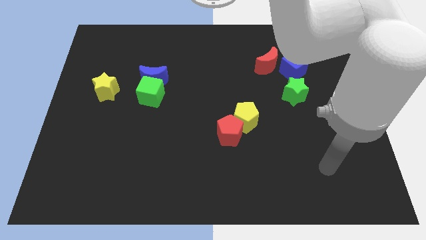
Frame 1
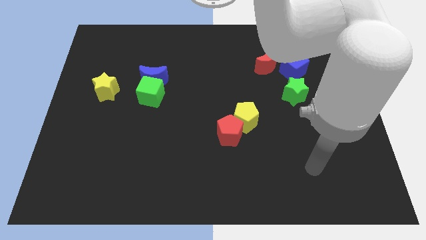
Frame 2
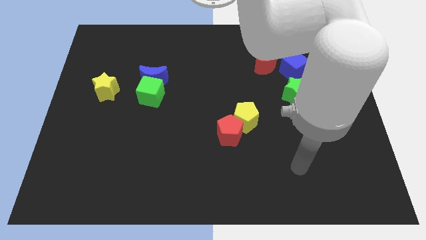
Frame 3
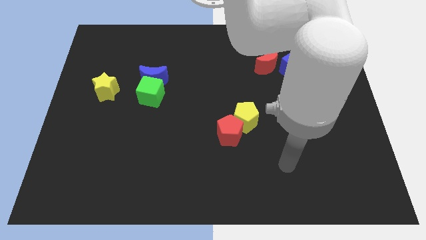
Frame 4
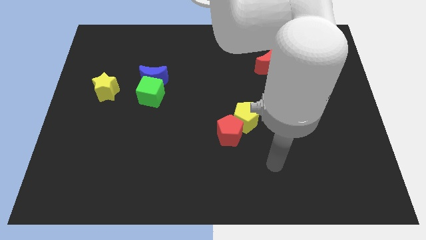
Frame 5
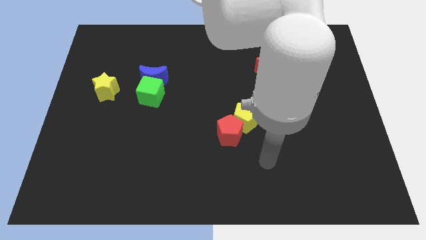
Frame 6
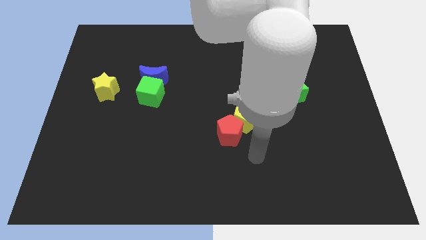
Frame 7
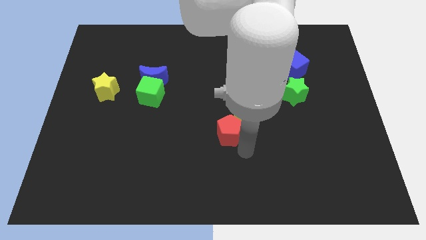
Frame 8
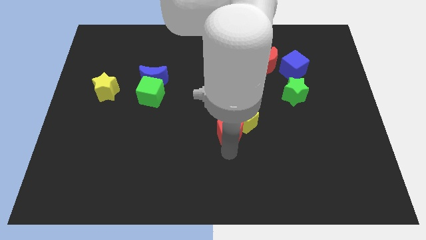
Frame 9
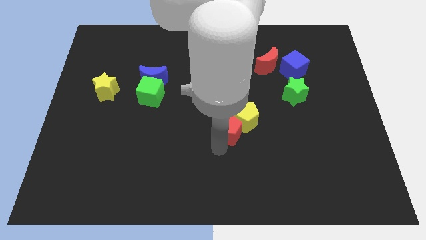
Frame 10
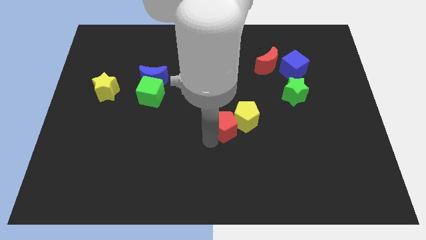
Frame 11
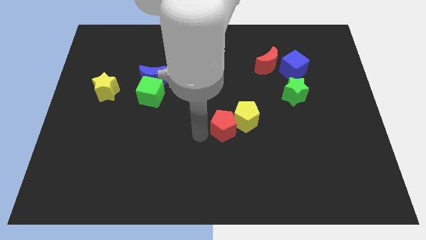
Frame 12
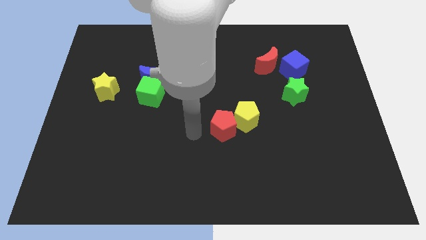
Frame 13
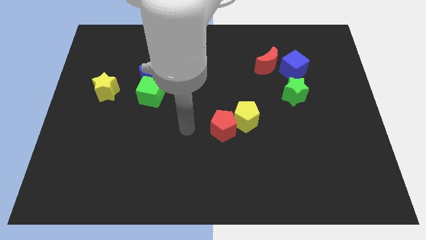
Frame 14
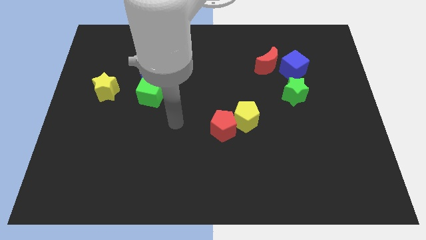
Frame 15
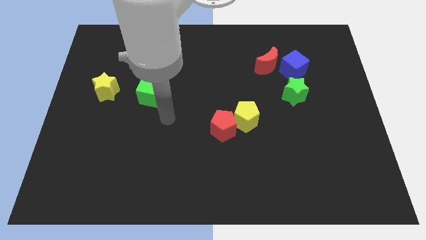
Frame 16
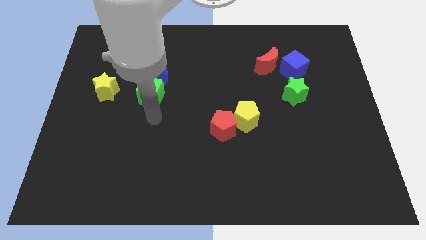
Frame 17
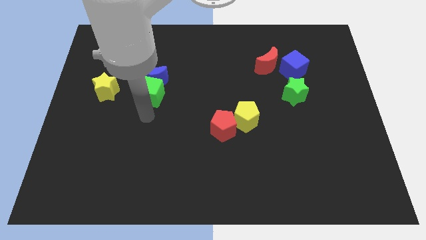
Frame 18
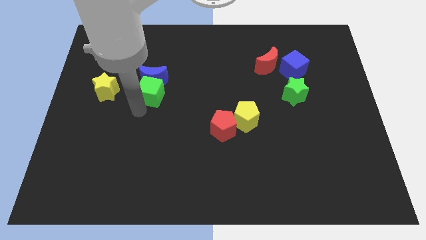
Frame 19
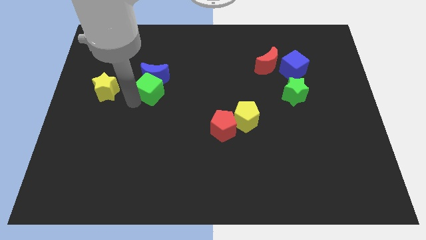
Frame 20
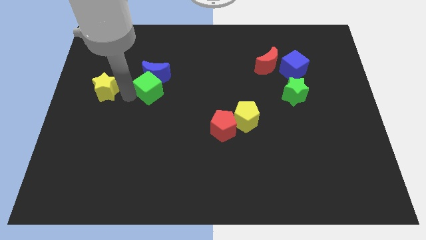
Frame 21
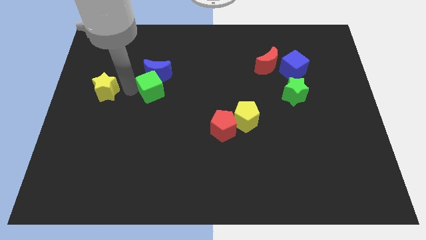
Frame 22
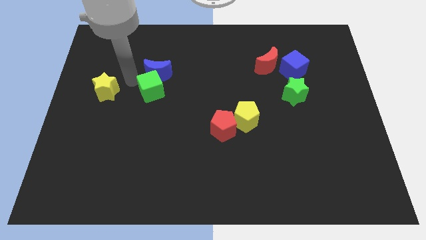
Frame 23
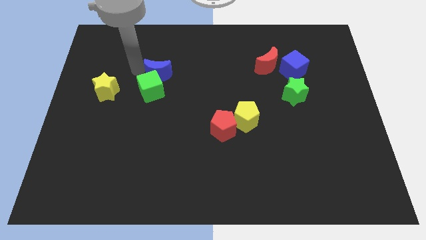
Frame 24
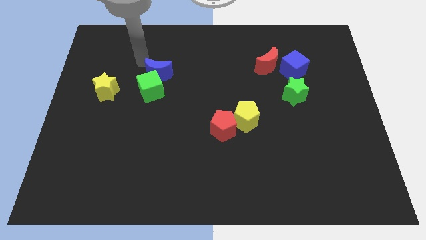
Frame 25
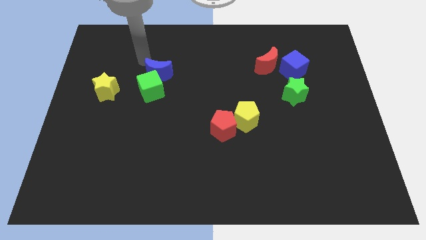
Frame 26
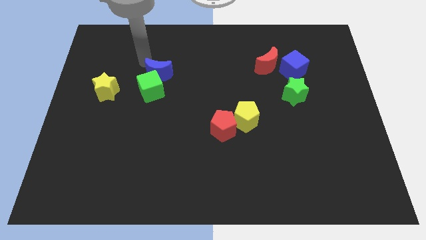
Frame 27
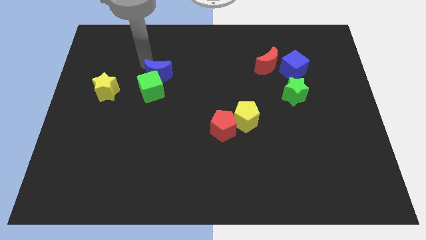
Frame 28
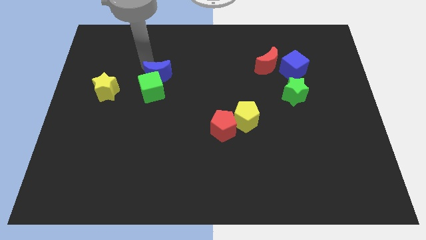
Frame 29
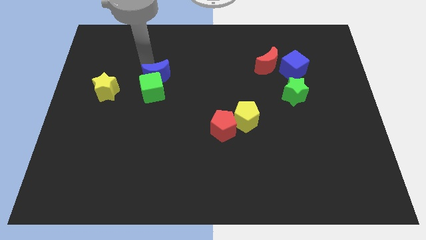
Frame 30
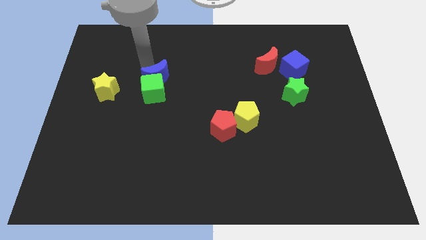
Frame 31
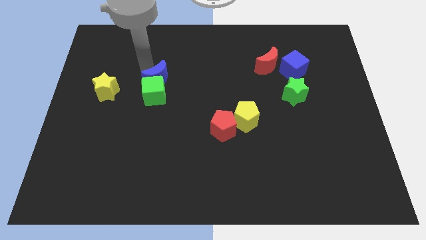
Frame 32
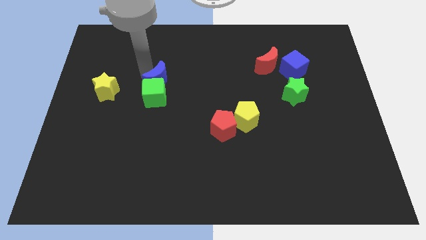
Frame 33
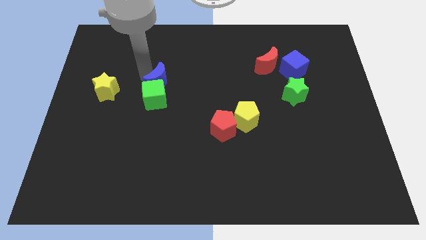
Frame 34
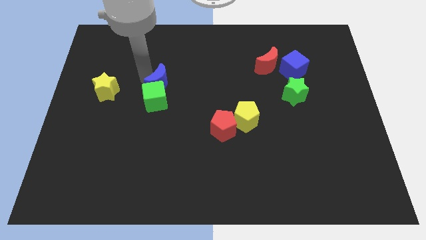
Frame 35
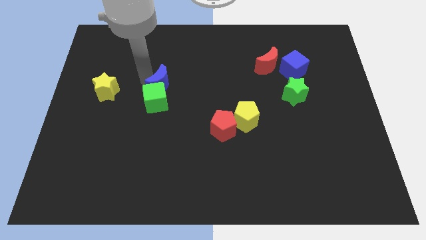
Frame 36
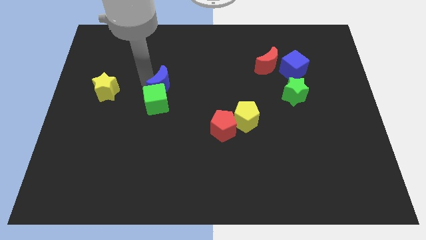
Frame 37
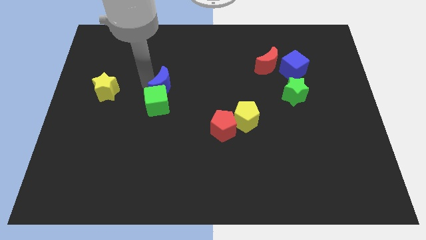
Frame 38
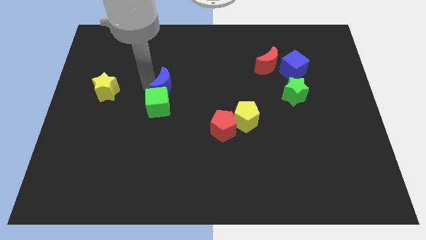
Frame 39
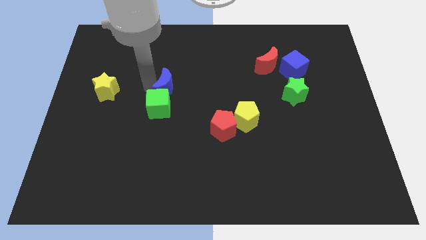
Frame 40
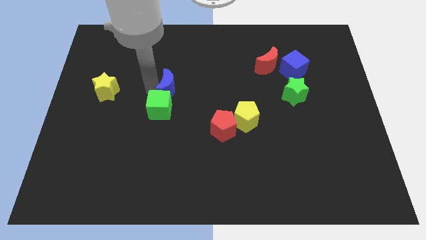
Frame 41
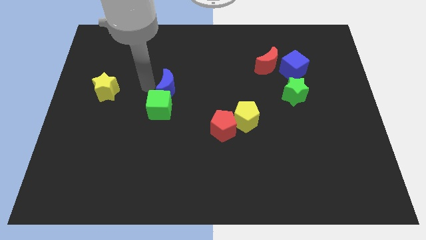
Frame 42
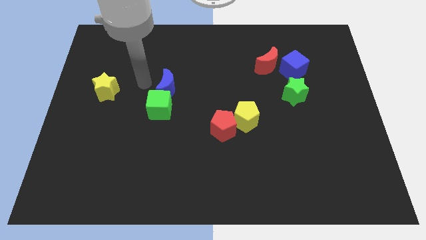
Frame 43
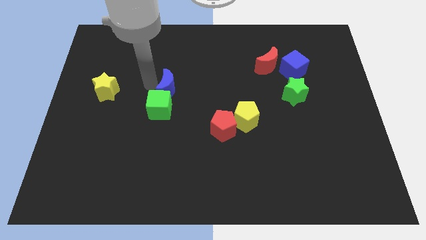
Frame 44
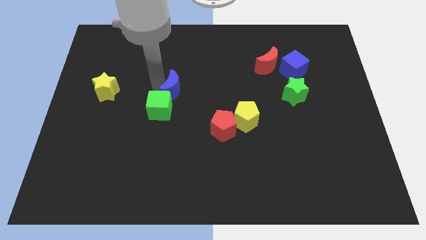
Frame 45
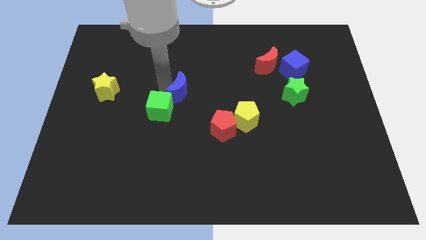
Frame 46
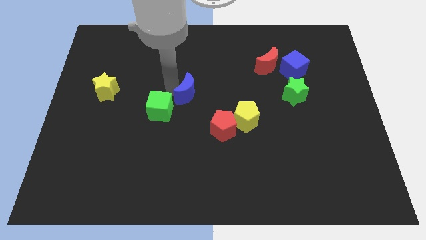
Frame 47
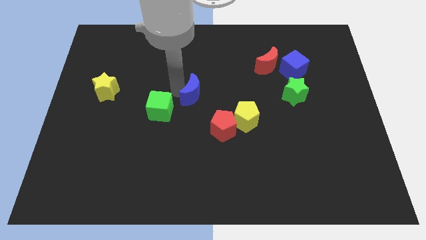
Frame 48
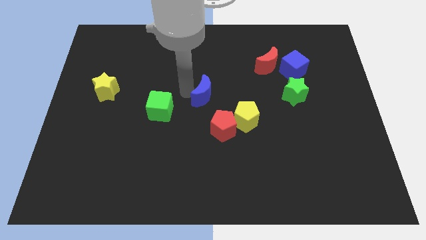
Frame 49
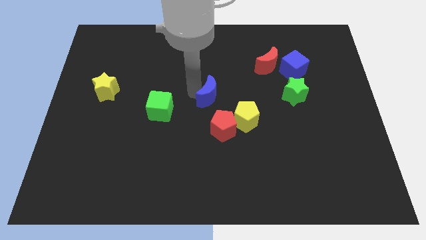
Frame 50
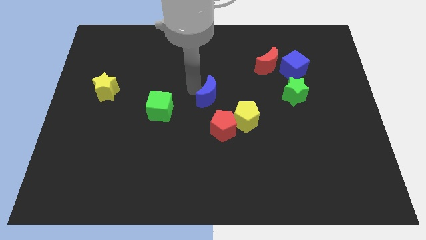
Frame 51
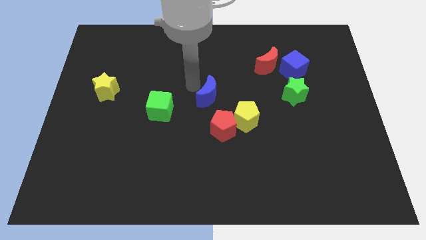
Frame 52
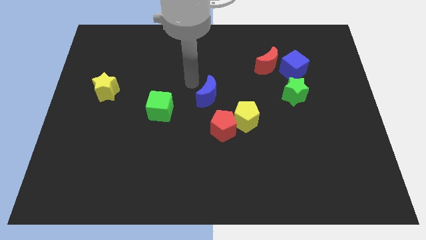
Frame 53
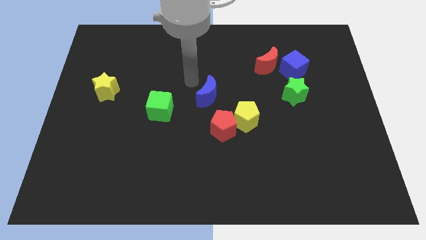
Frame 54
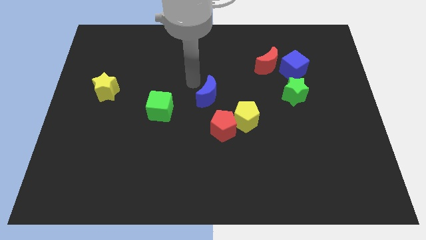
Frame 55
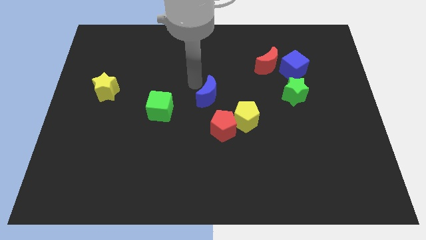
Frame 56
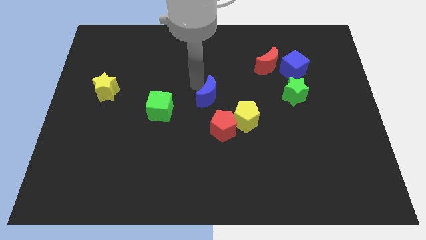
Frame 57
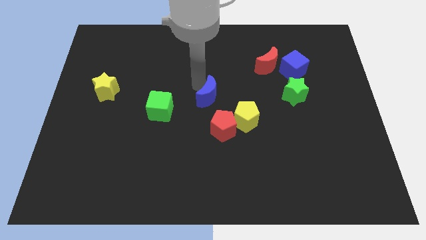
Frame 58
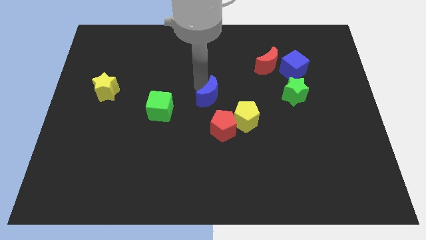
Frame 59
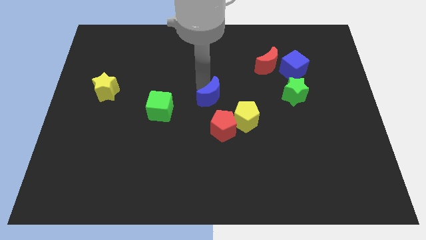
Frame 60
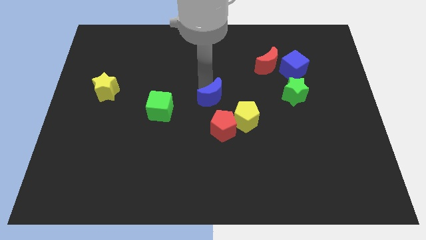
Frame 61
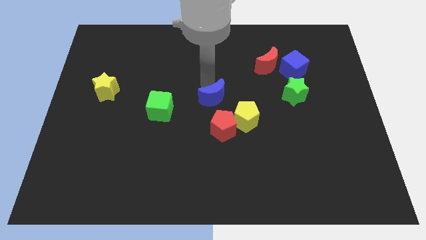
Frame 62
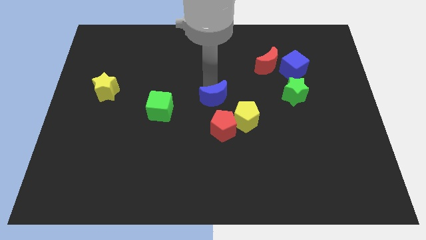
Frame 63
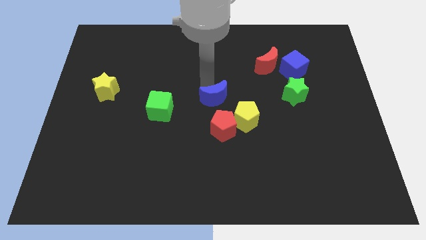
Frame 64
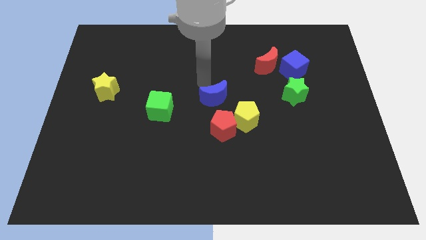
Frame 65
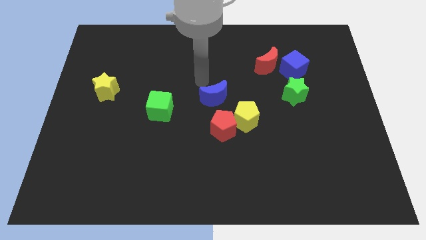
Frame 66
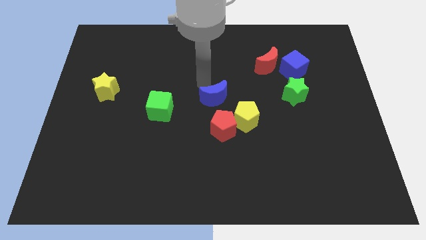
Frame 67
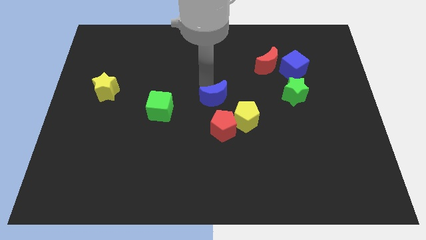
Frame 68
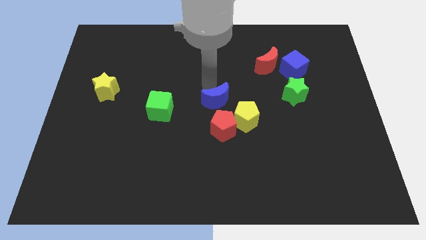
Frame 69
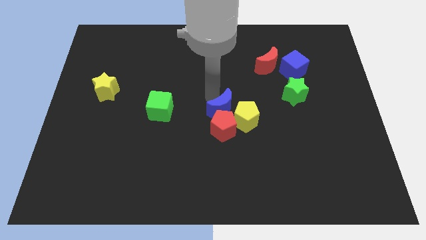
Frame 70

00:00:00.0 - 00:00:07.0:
slide the blue moon to the yellow pentagon
